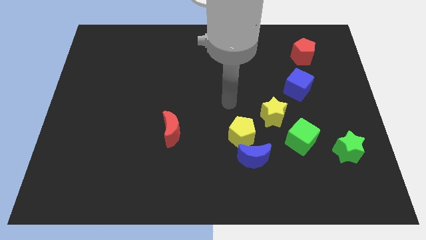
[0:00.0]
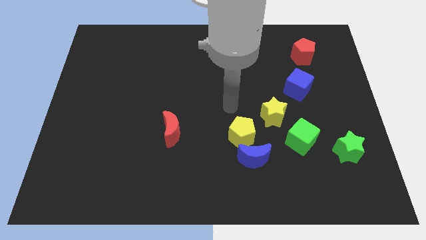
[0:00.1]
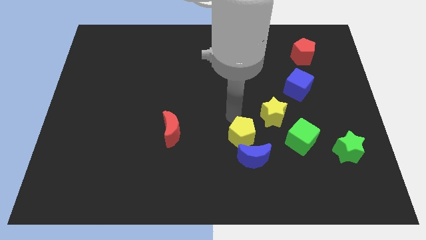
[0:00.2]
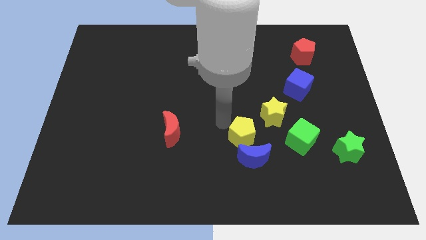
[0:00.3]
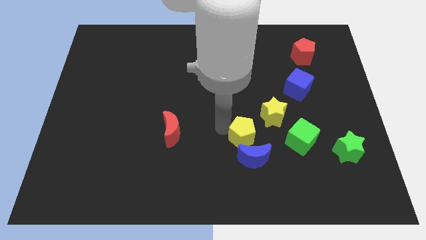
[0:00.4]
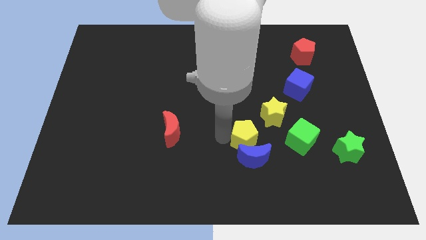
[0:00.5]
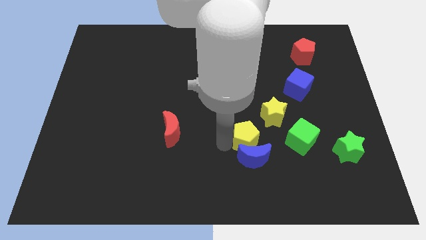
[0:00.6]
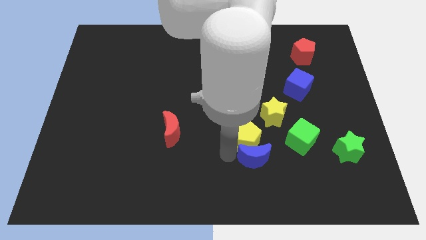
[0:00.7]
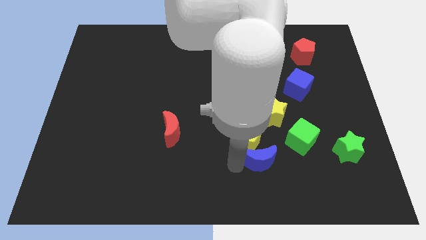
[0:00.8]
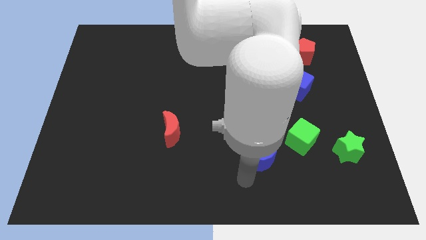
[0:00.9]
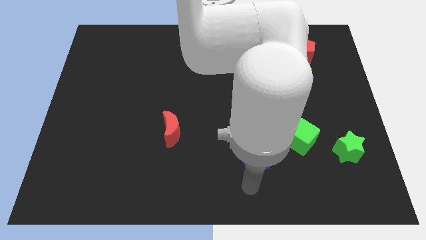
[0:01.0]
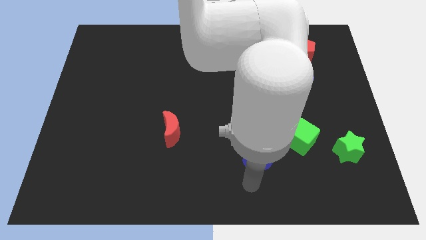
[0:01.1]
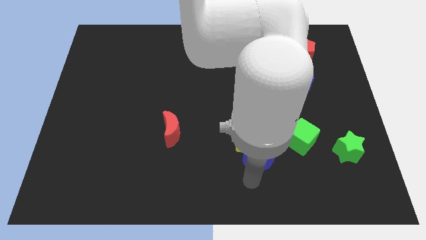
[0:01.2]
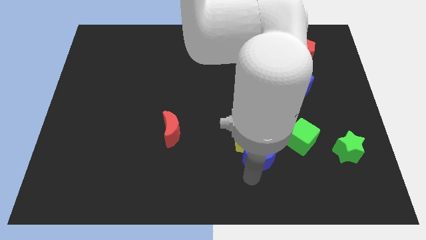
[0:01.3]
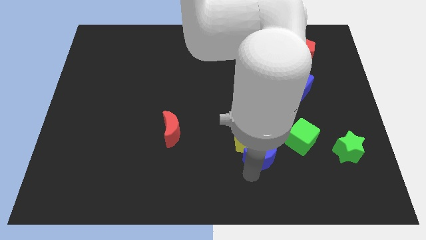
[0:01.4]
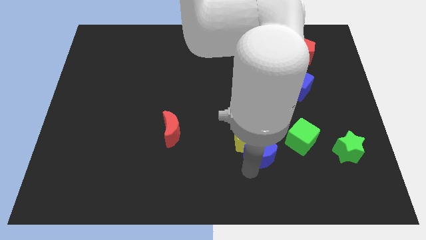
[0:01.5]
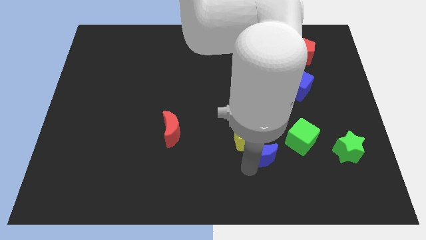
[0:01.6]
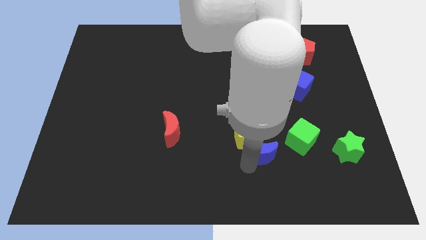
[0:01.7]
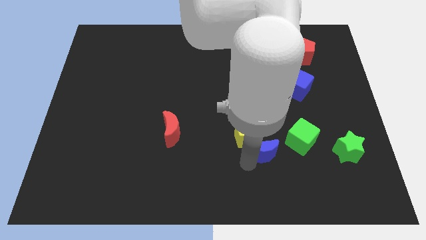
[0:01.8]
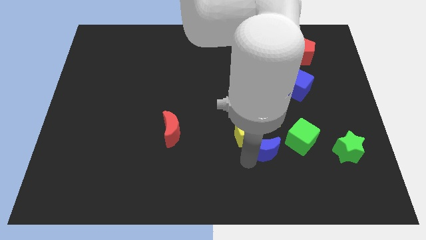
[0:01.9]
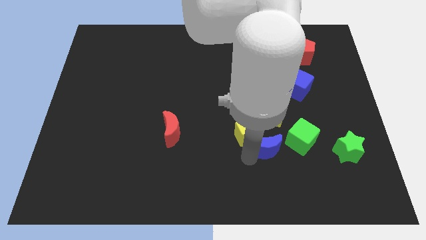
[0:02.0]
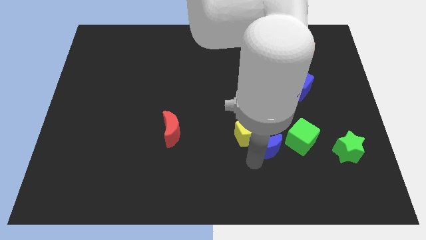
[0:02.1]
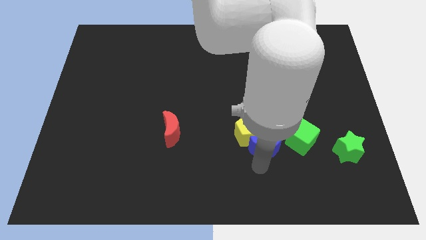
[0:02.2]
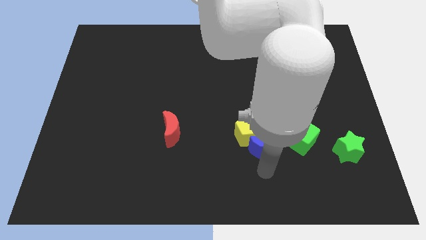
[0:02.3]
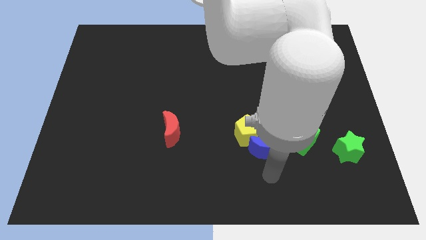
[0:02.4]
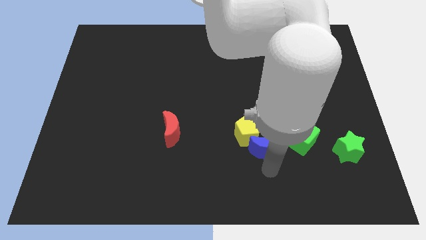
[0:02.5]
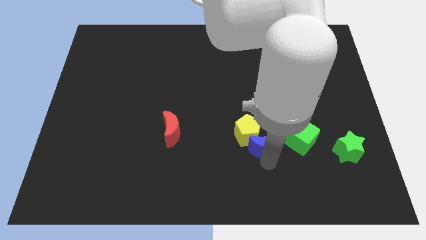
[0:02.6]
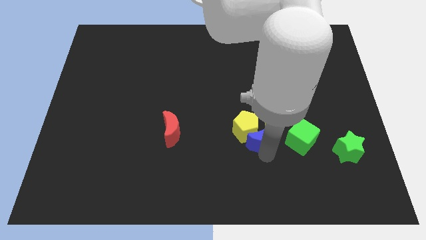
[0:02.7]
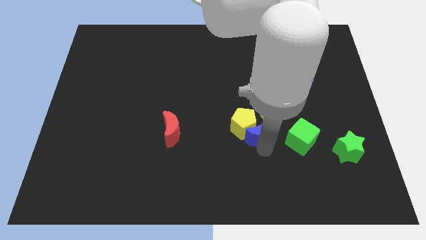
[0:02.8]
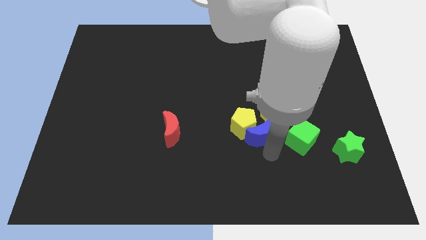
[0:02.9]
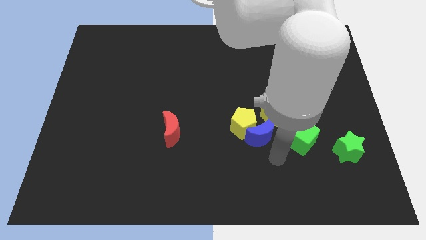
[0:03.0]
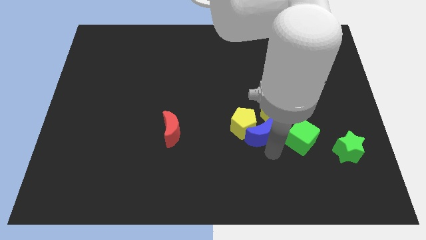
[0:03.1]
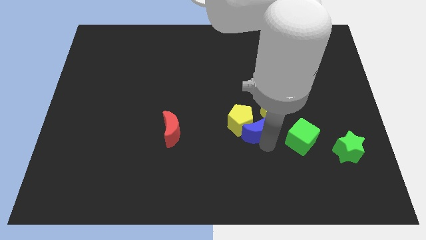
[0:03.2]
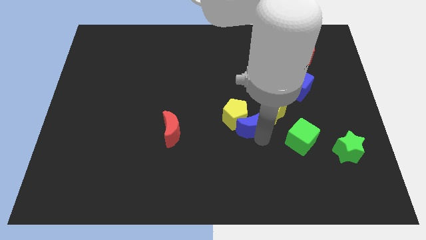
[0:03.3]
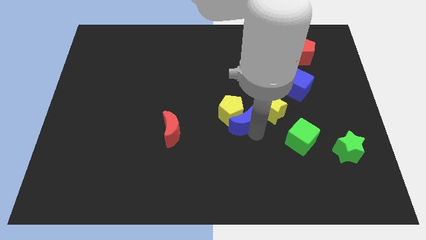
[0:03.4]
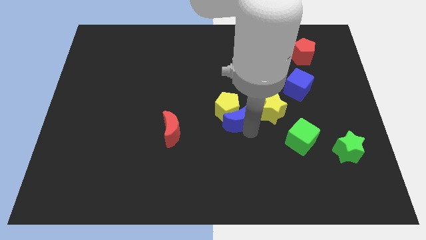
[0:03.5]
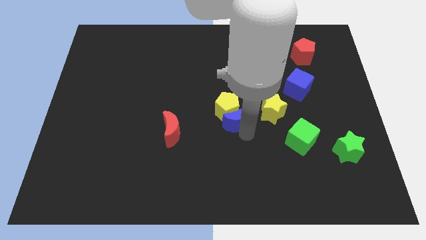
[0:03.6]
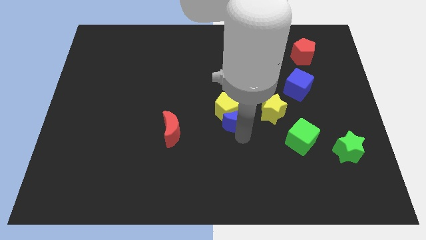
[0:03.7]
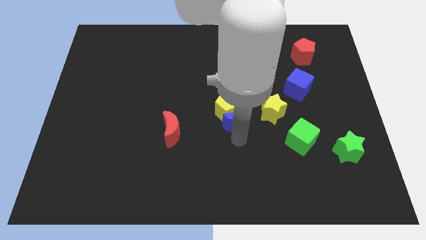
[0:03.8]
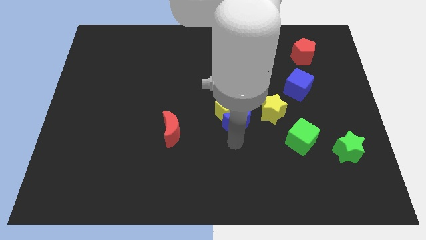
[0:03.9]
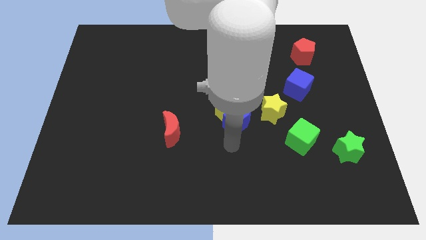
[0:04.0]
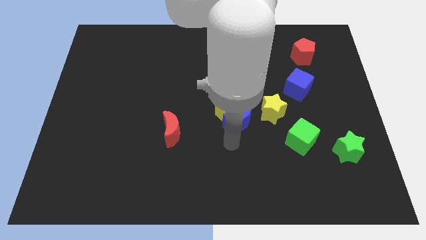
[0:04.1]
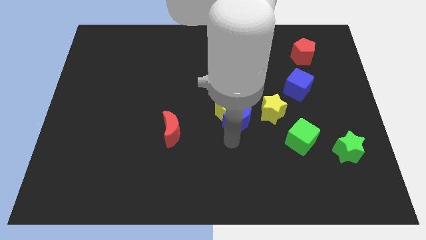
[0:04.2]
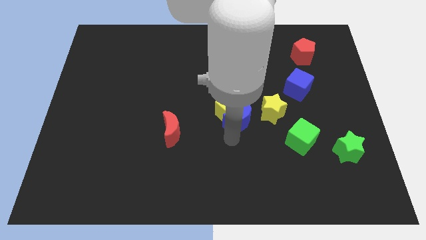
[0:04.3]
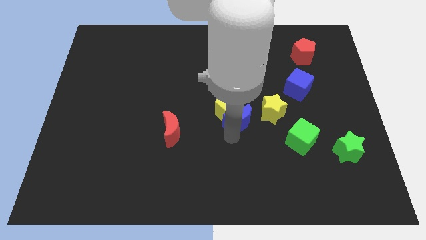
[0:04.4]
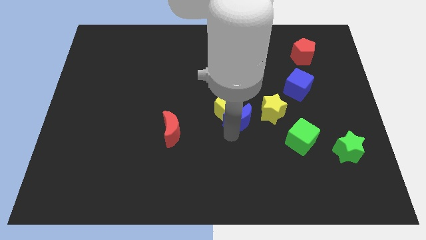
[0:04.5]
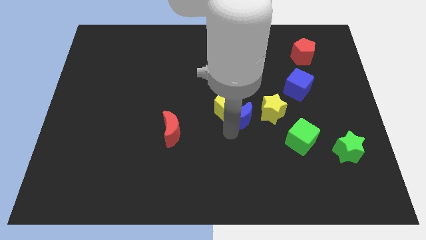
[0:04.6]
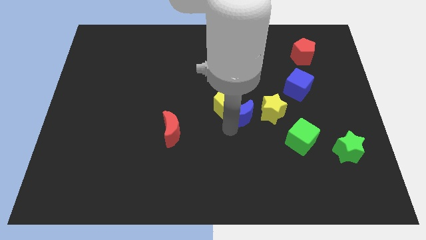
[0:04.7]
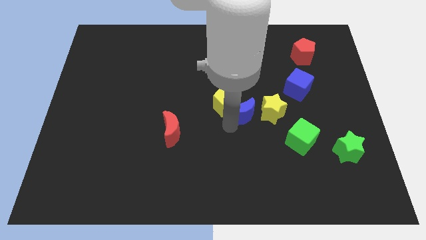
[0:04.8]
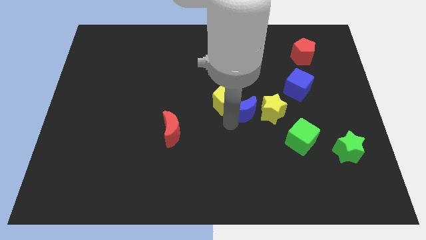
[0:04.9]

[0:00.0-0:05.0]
slide the blue moon to the top left of the yellow star

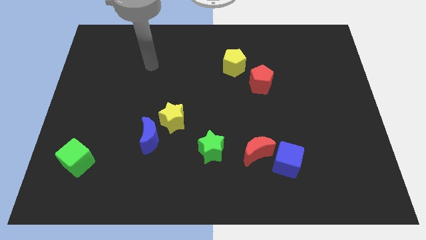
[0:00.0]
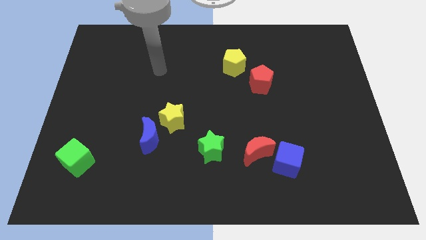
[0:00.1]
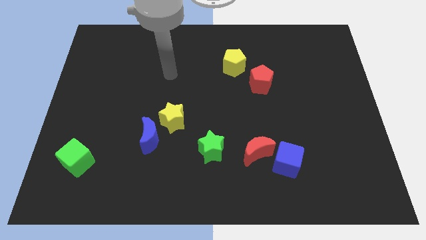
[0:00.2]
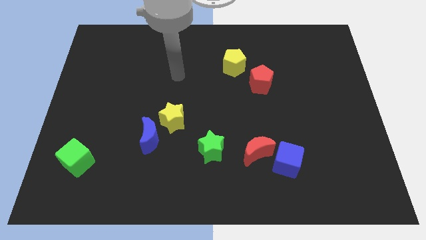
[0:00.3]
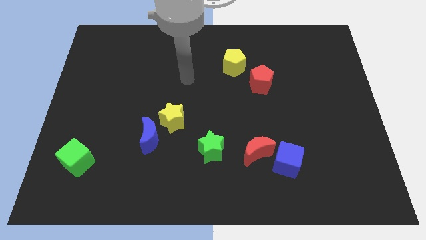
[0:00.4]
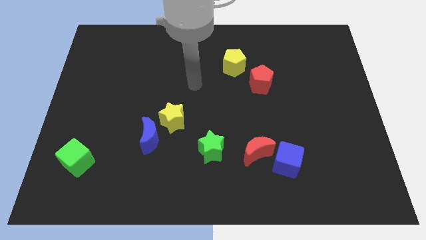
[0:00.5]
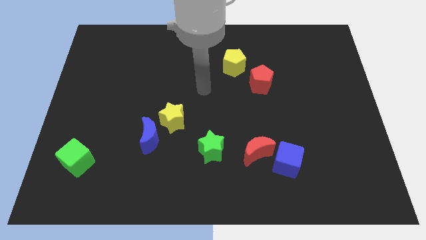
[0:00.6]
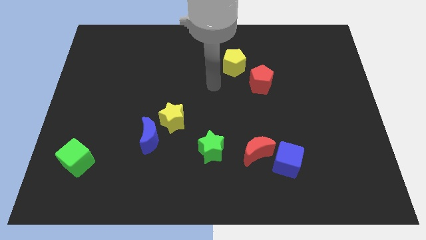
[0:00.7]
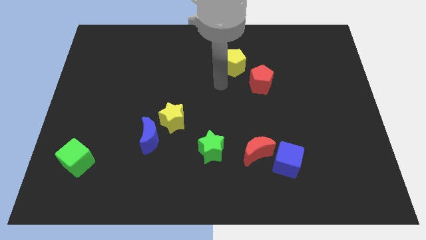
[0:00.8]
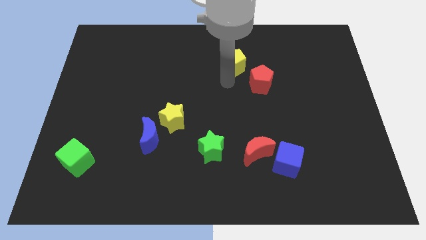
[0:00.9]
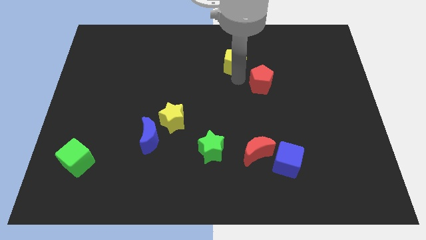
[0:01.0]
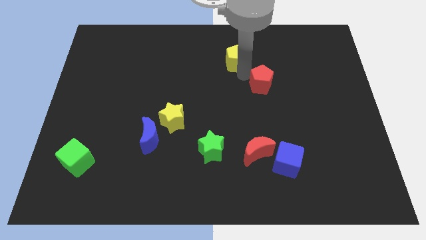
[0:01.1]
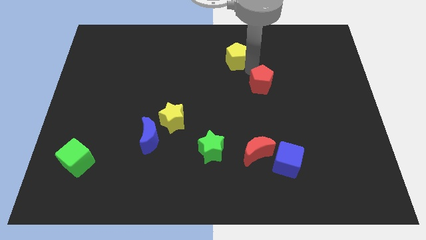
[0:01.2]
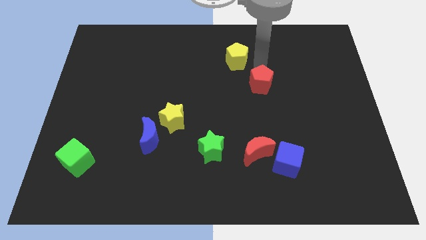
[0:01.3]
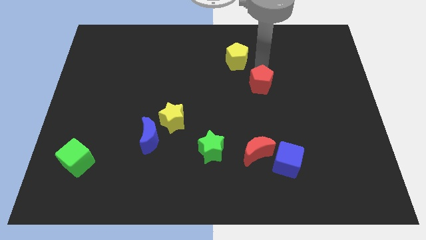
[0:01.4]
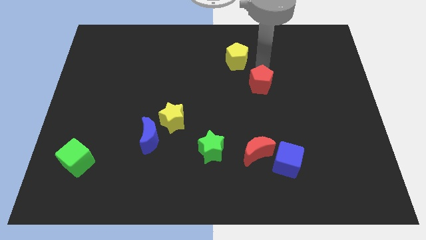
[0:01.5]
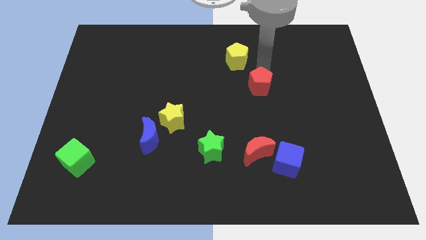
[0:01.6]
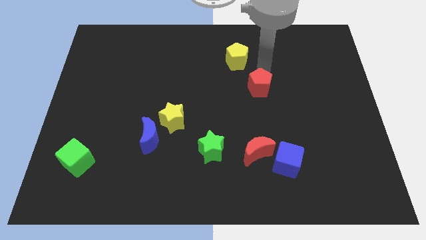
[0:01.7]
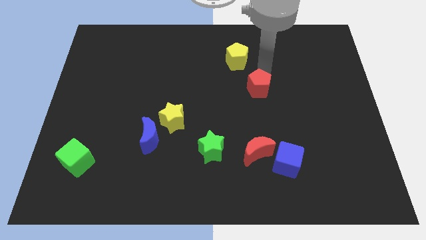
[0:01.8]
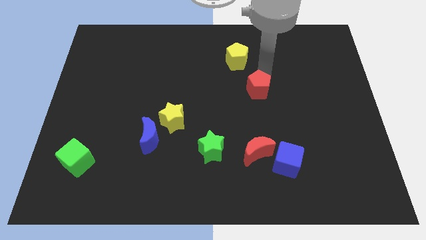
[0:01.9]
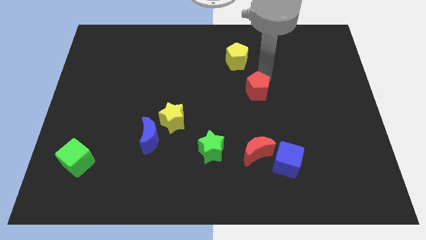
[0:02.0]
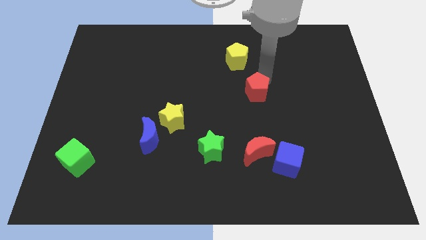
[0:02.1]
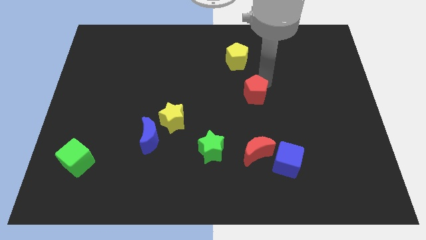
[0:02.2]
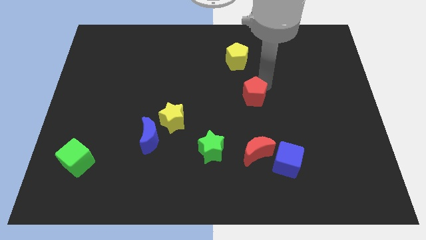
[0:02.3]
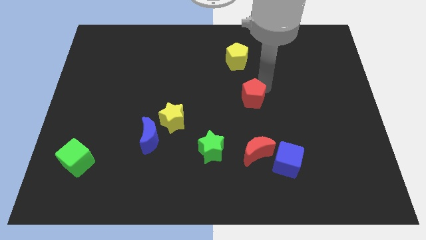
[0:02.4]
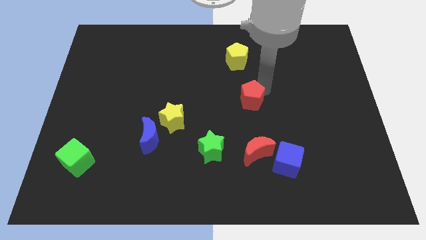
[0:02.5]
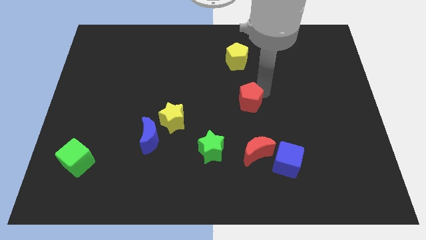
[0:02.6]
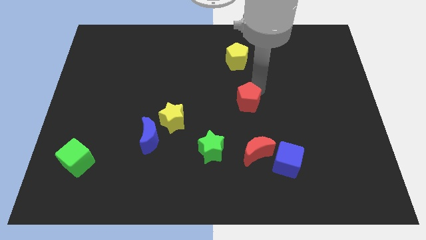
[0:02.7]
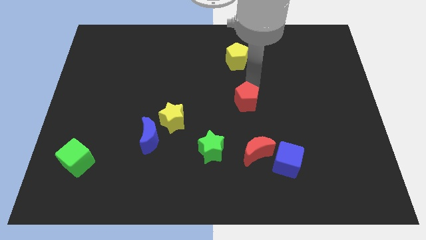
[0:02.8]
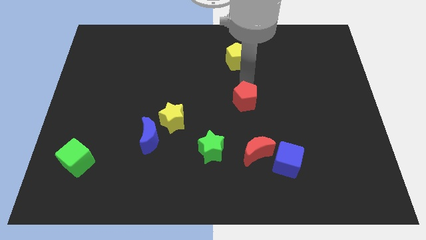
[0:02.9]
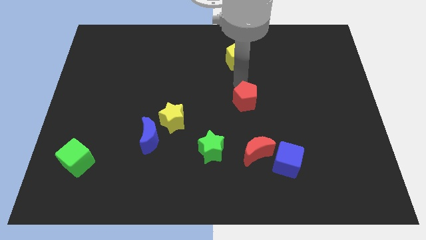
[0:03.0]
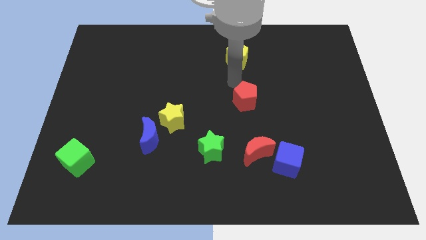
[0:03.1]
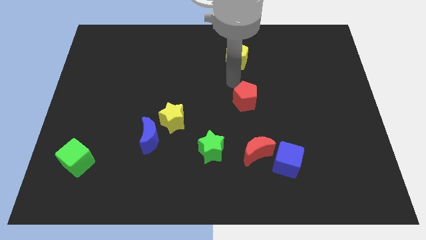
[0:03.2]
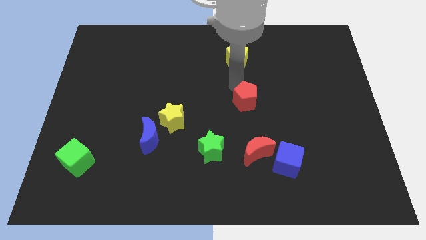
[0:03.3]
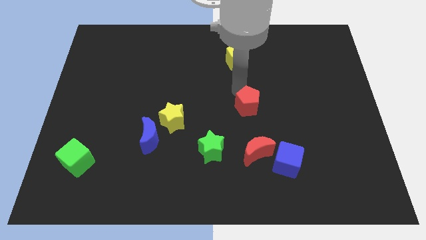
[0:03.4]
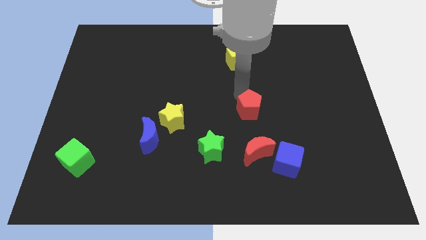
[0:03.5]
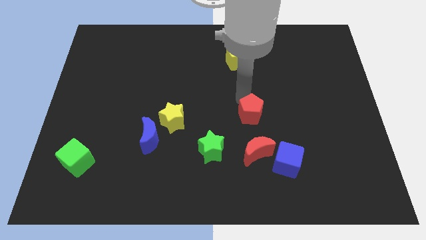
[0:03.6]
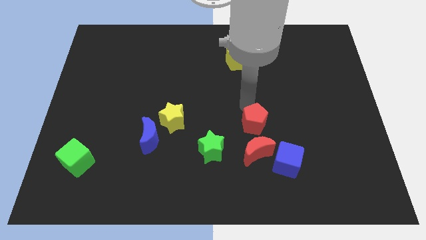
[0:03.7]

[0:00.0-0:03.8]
slide the red pentagon to the top left of the blue cube
